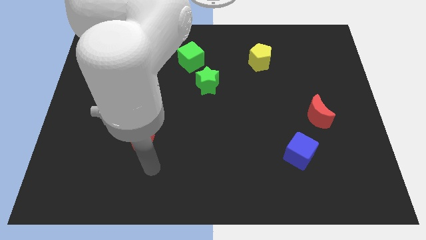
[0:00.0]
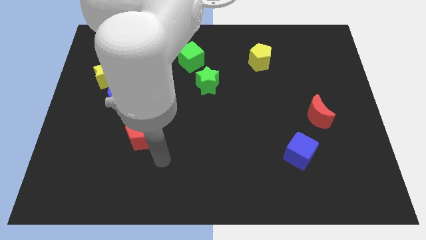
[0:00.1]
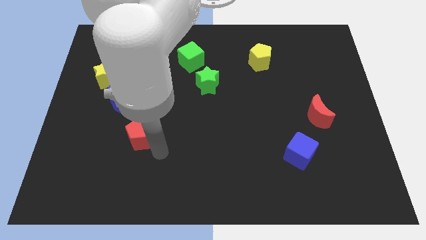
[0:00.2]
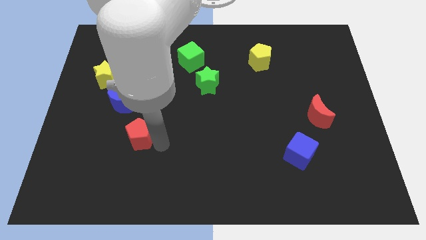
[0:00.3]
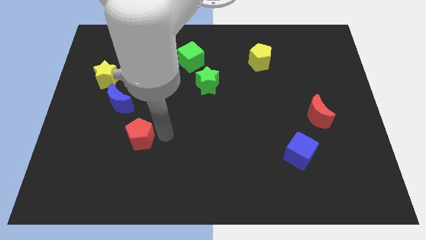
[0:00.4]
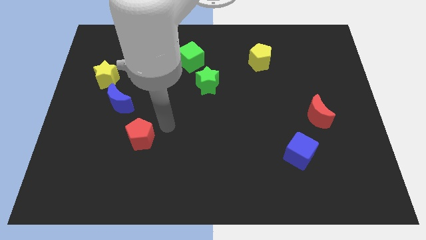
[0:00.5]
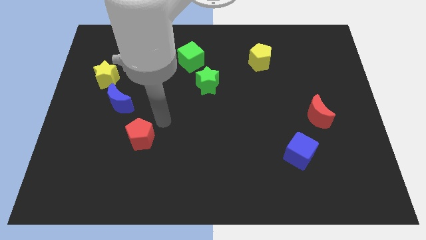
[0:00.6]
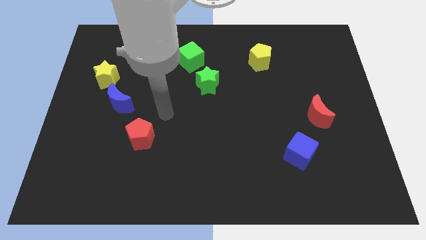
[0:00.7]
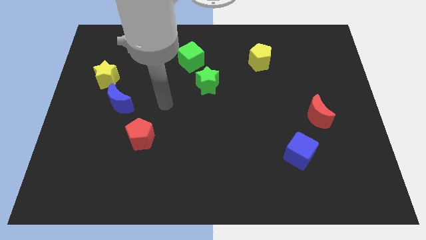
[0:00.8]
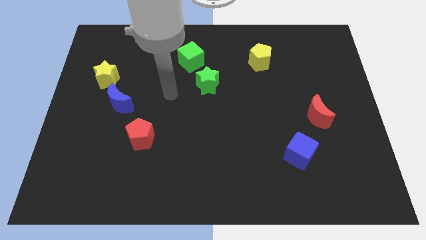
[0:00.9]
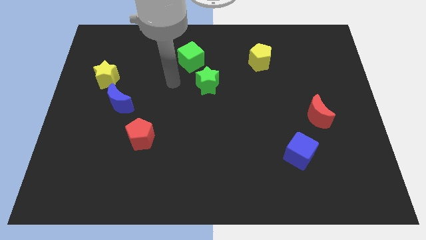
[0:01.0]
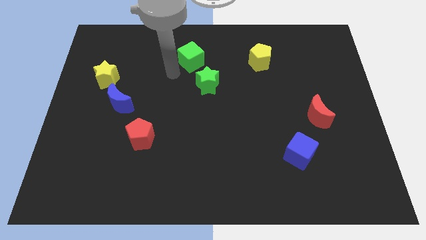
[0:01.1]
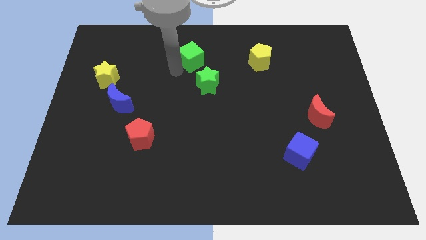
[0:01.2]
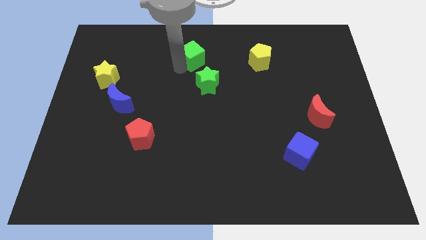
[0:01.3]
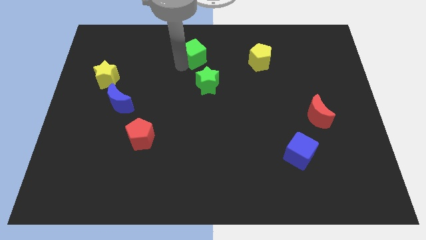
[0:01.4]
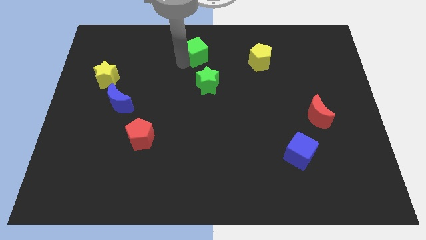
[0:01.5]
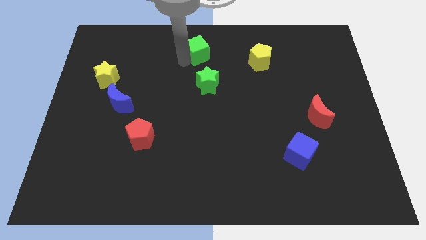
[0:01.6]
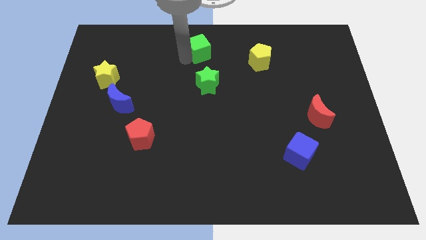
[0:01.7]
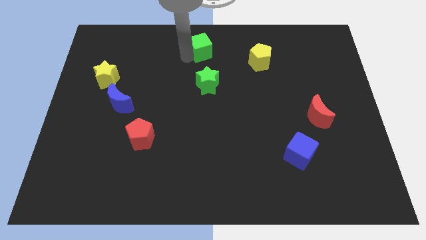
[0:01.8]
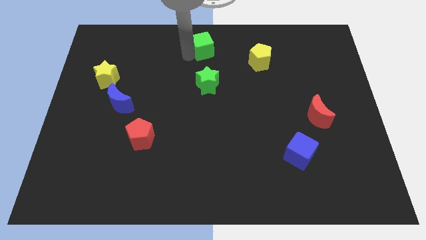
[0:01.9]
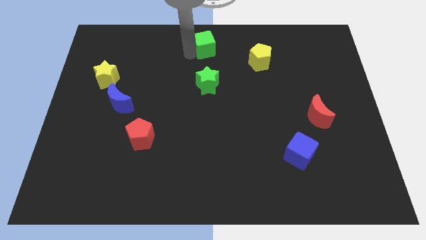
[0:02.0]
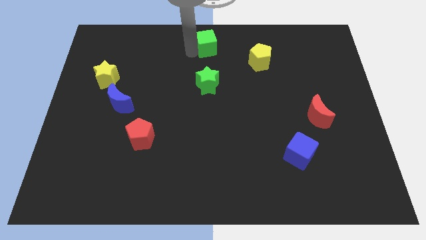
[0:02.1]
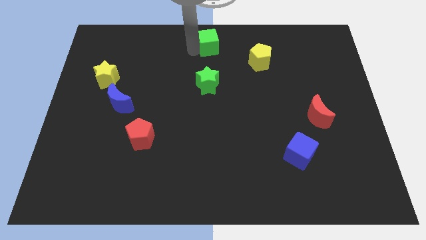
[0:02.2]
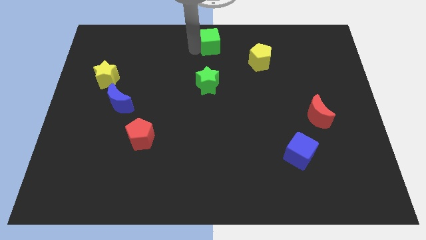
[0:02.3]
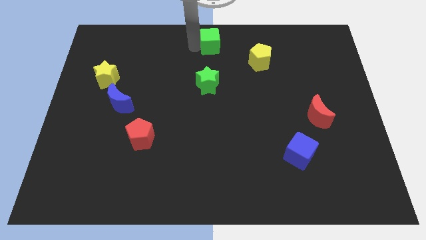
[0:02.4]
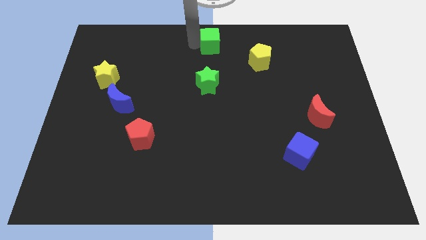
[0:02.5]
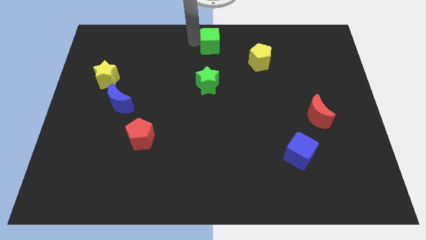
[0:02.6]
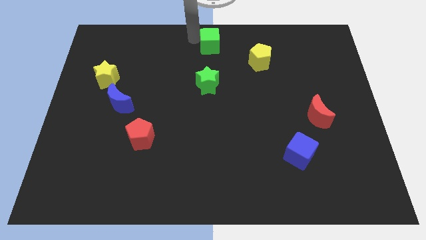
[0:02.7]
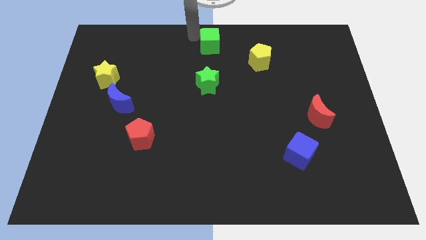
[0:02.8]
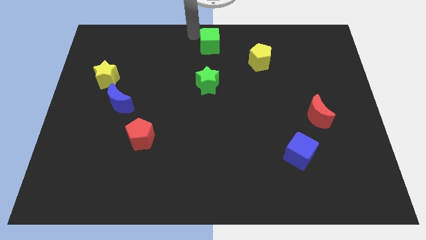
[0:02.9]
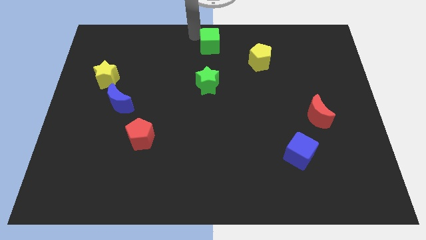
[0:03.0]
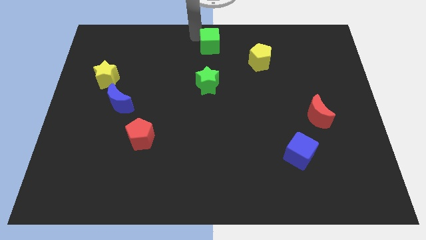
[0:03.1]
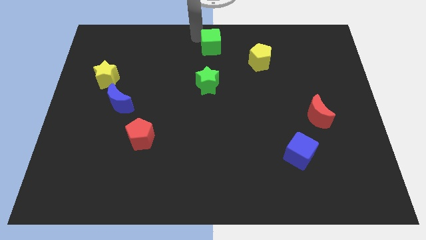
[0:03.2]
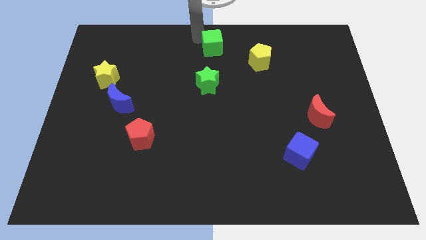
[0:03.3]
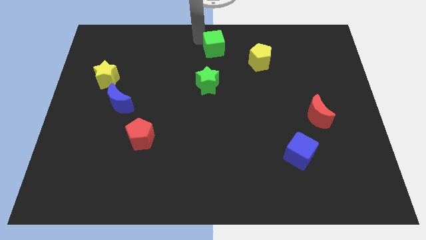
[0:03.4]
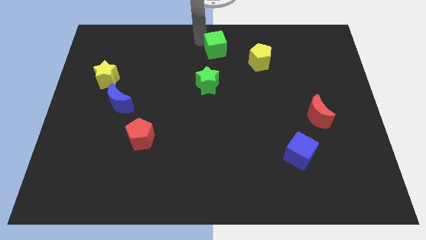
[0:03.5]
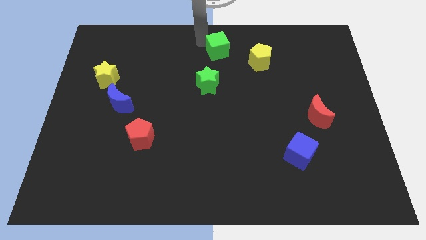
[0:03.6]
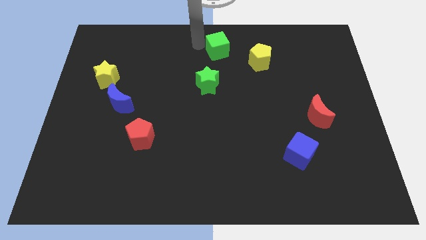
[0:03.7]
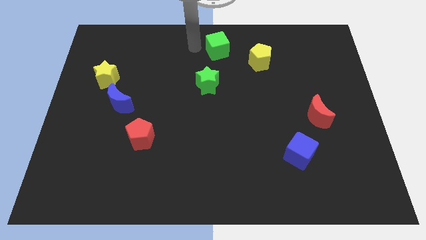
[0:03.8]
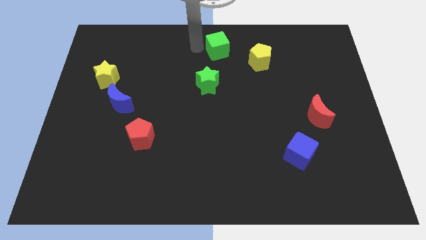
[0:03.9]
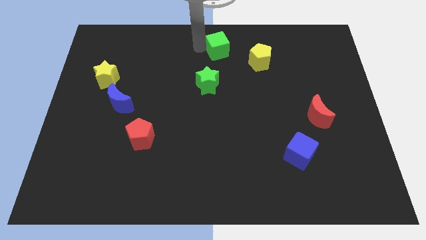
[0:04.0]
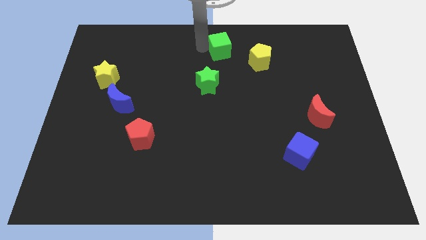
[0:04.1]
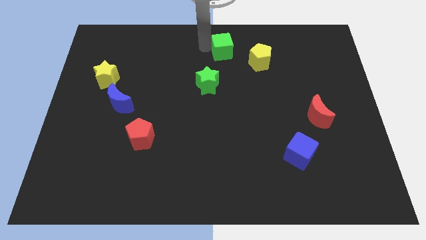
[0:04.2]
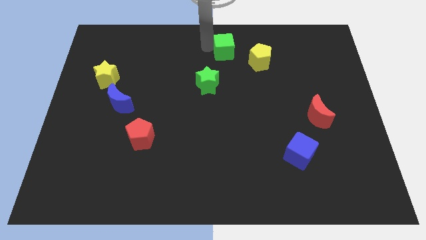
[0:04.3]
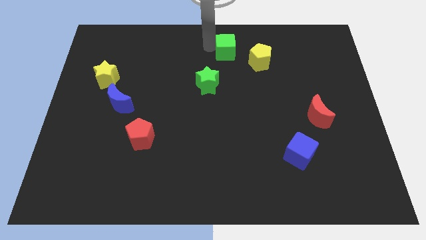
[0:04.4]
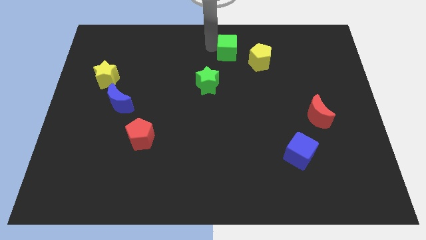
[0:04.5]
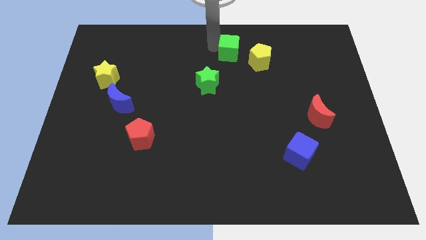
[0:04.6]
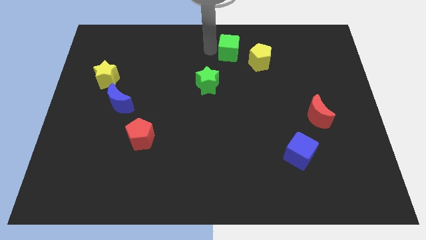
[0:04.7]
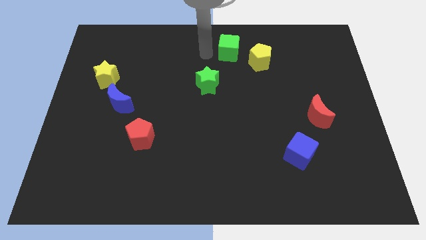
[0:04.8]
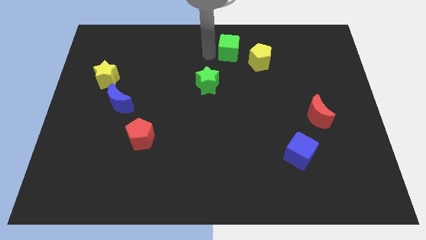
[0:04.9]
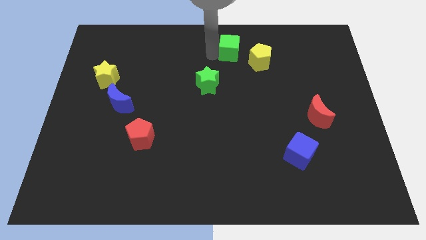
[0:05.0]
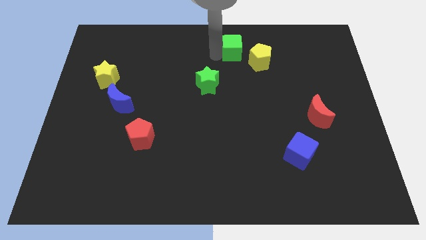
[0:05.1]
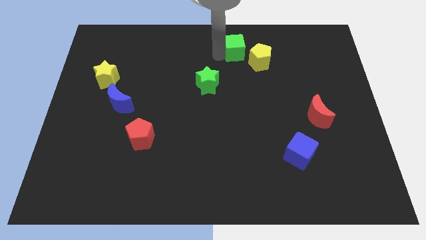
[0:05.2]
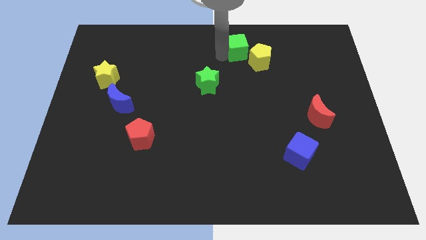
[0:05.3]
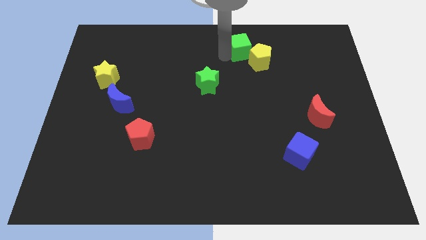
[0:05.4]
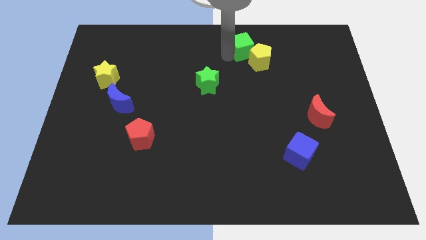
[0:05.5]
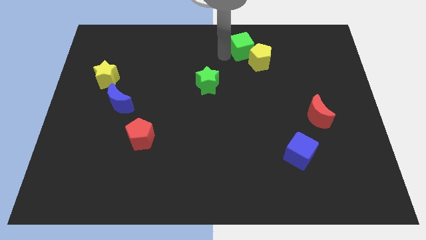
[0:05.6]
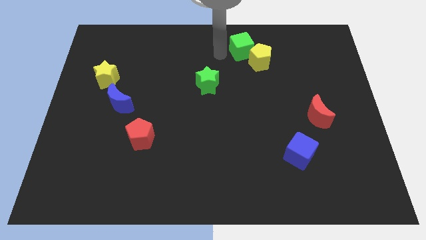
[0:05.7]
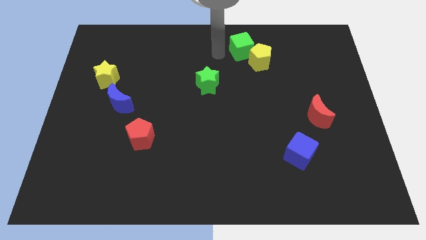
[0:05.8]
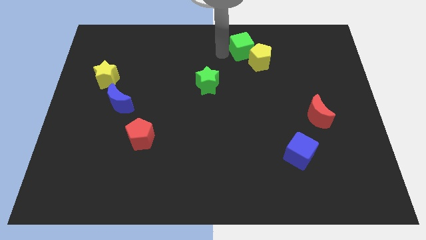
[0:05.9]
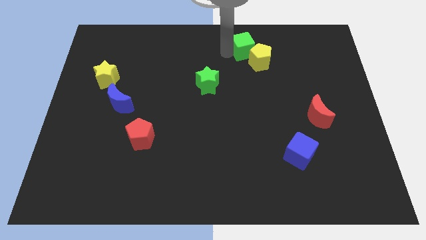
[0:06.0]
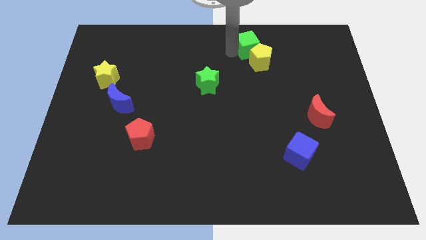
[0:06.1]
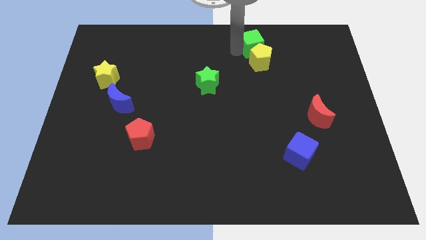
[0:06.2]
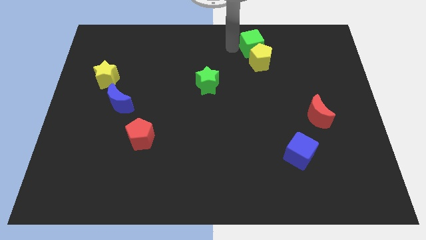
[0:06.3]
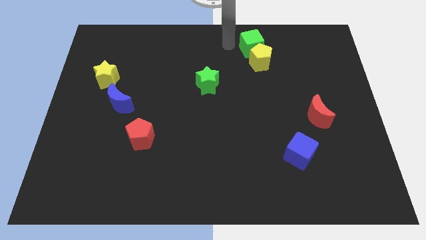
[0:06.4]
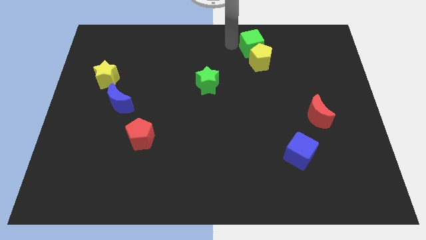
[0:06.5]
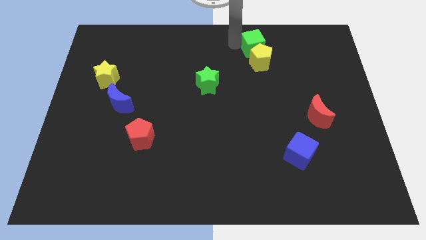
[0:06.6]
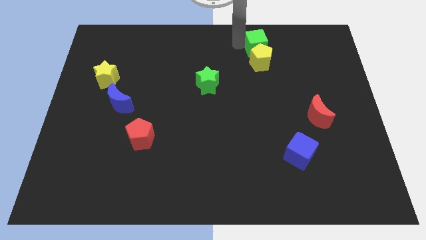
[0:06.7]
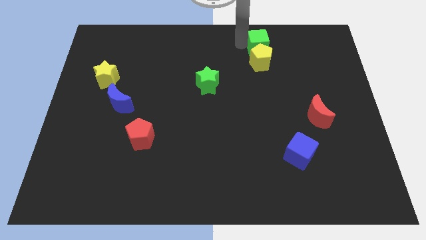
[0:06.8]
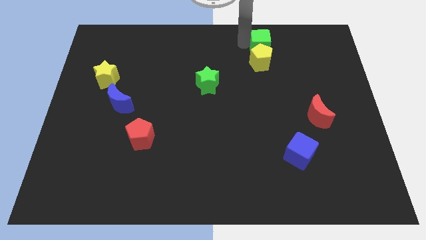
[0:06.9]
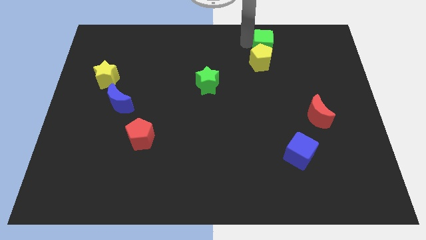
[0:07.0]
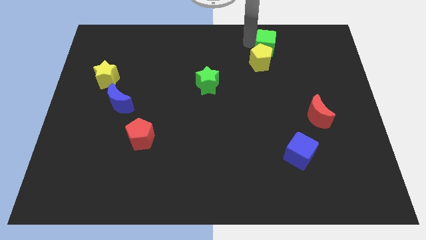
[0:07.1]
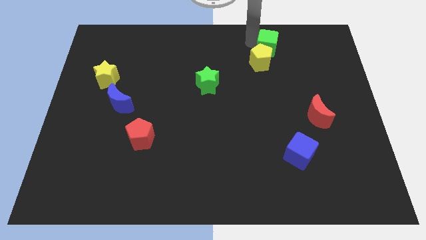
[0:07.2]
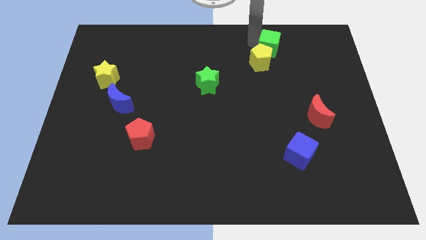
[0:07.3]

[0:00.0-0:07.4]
slide the green cube to the right

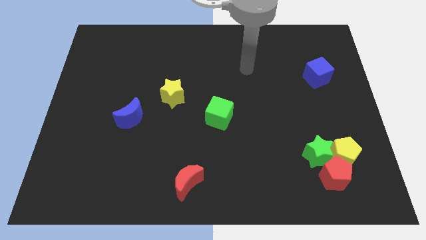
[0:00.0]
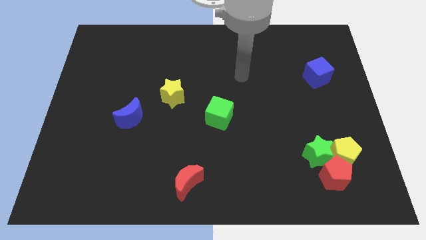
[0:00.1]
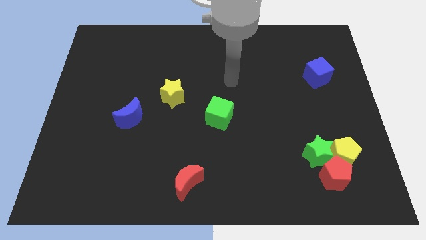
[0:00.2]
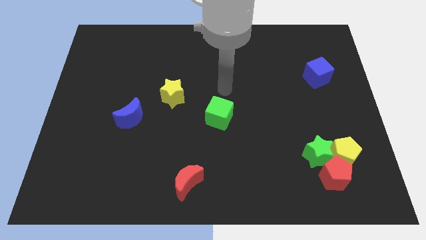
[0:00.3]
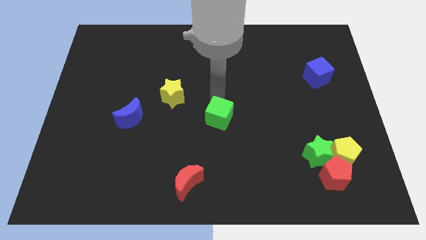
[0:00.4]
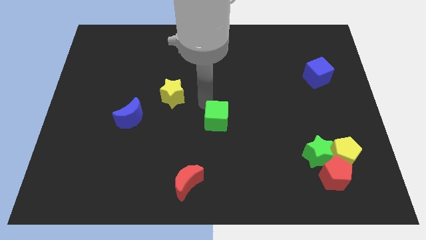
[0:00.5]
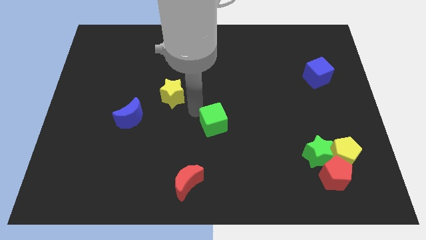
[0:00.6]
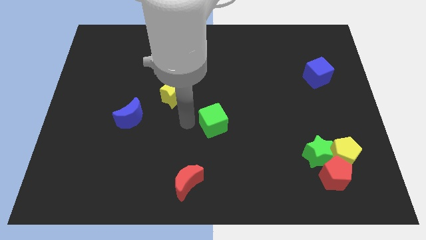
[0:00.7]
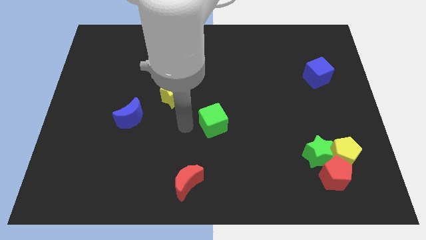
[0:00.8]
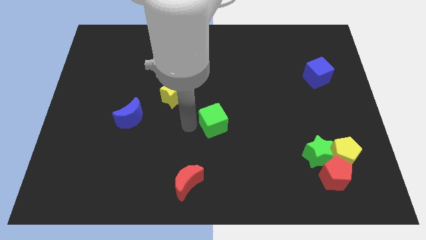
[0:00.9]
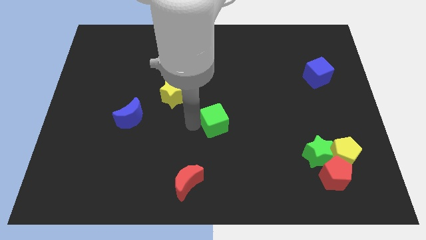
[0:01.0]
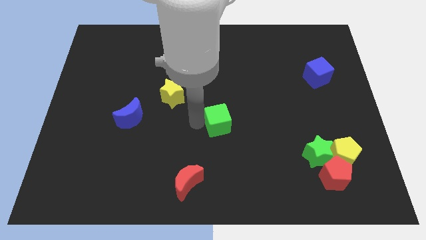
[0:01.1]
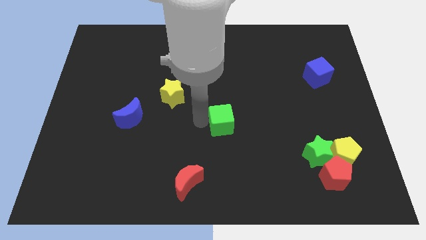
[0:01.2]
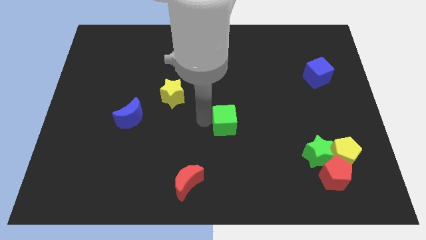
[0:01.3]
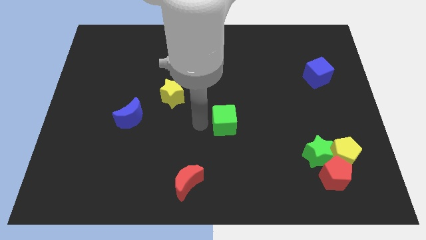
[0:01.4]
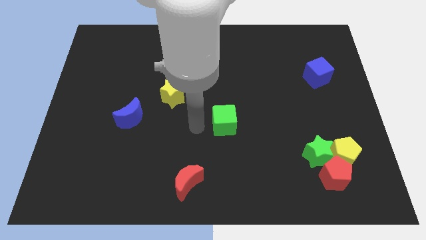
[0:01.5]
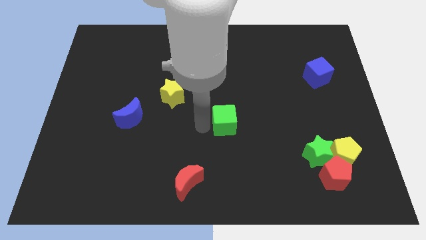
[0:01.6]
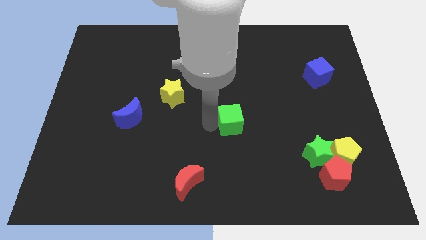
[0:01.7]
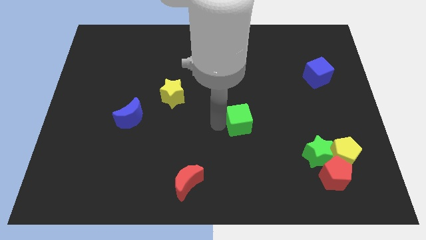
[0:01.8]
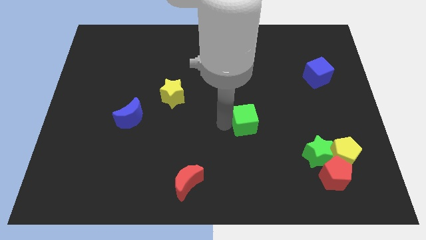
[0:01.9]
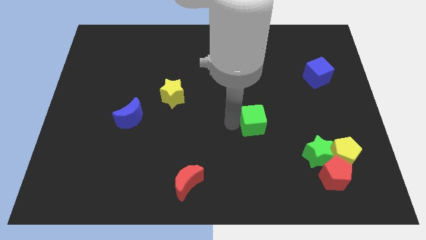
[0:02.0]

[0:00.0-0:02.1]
slightly slide the green cube to the right
